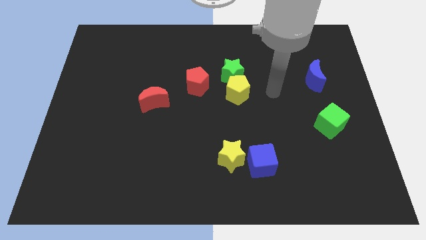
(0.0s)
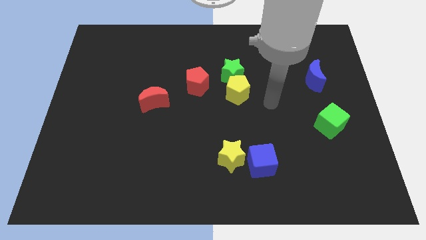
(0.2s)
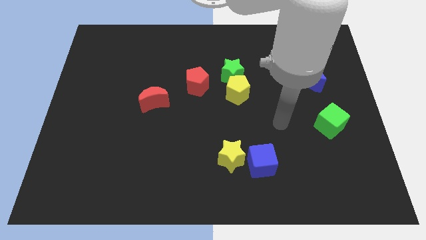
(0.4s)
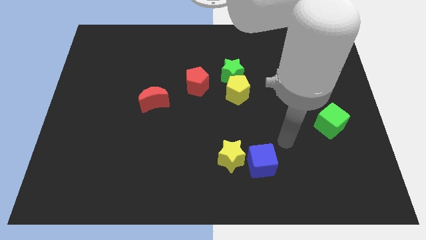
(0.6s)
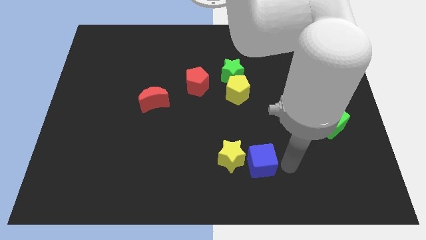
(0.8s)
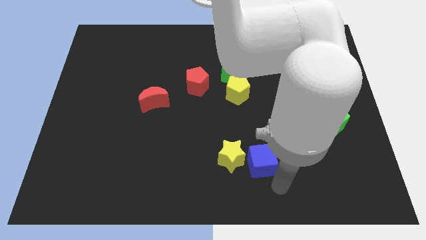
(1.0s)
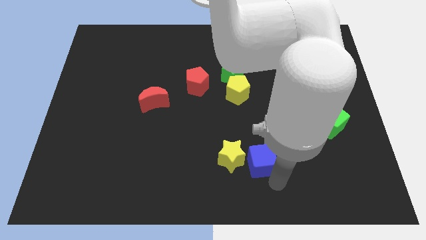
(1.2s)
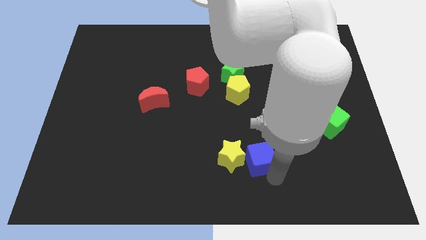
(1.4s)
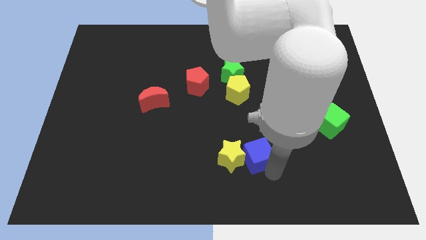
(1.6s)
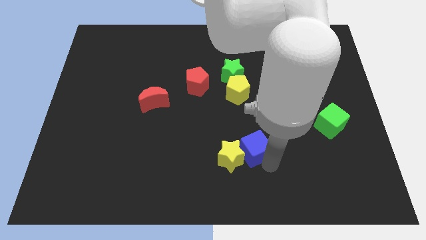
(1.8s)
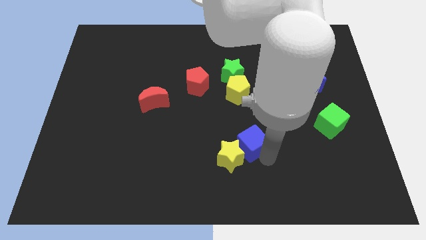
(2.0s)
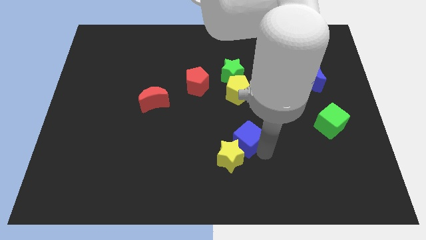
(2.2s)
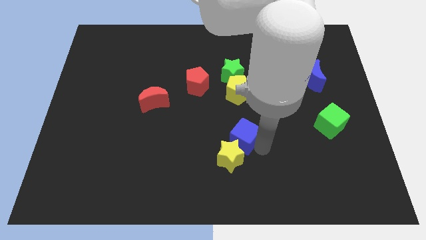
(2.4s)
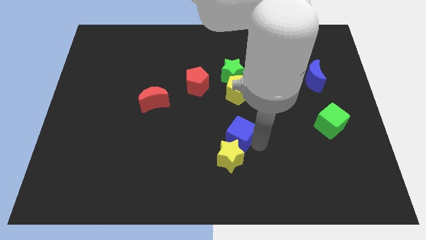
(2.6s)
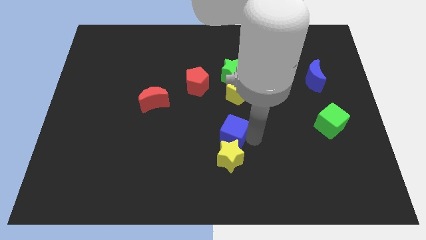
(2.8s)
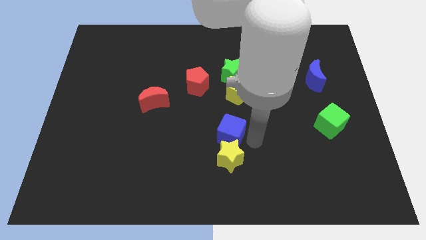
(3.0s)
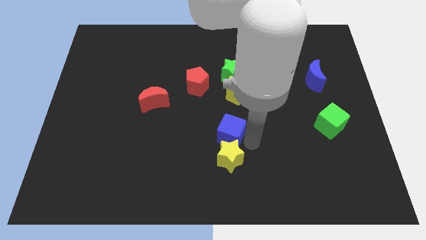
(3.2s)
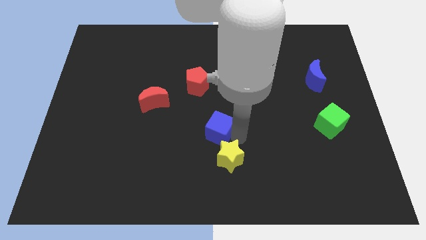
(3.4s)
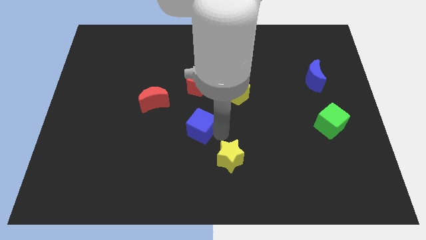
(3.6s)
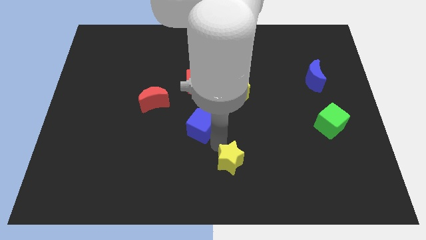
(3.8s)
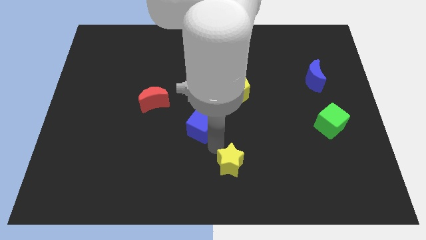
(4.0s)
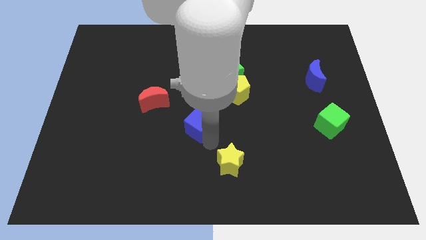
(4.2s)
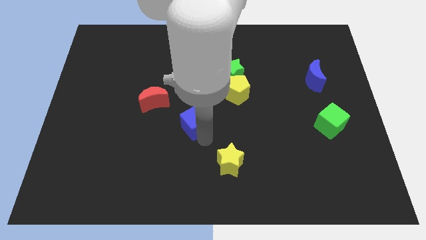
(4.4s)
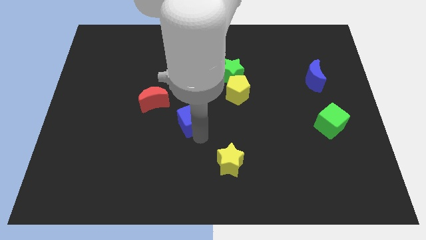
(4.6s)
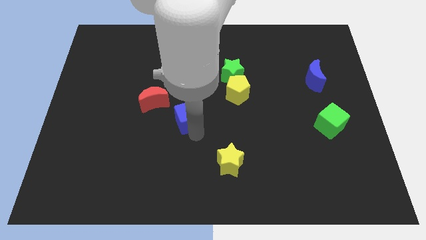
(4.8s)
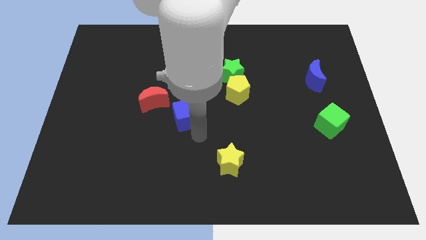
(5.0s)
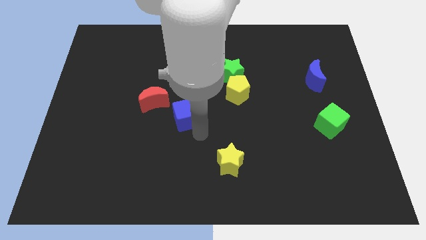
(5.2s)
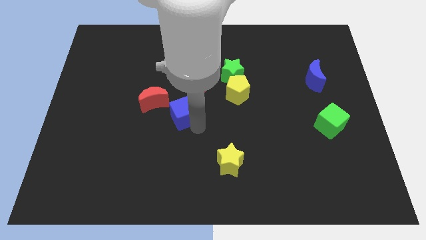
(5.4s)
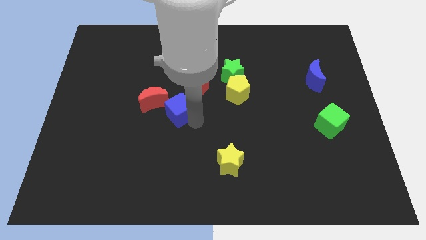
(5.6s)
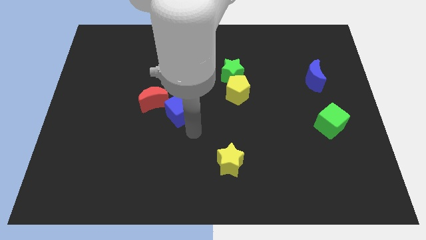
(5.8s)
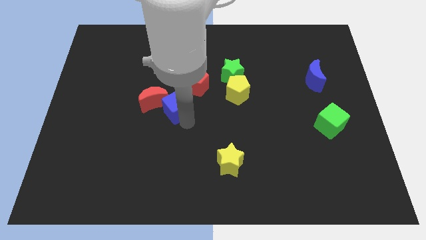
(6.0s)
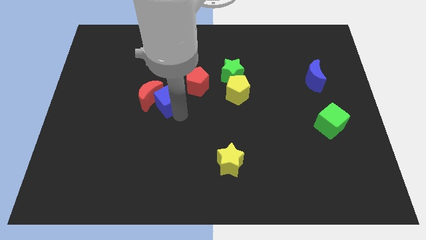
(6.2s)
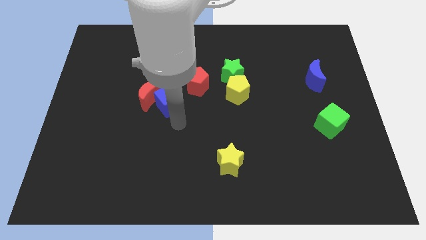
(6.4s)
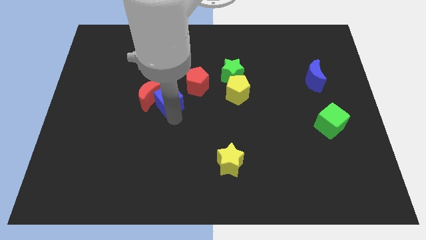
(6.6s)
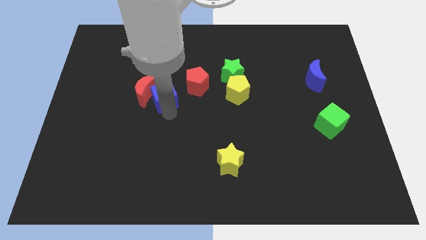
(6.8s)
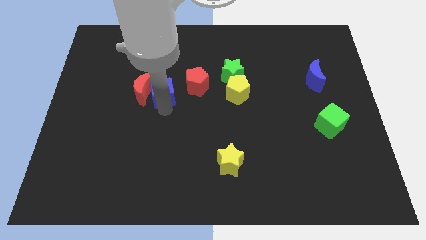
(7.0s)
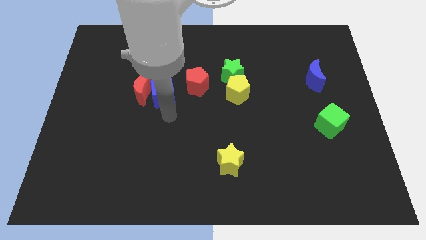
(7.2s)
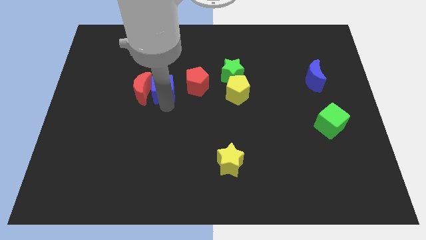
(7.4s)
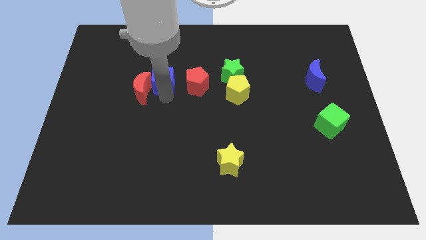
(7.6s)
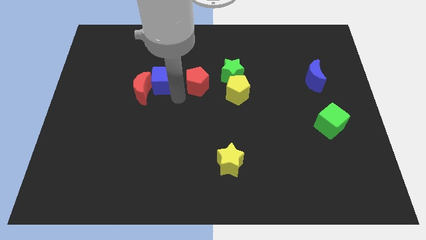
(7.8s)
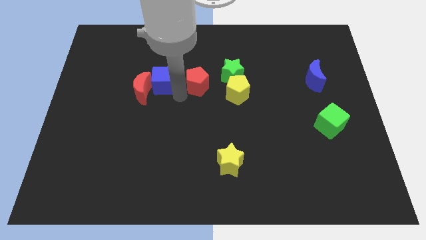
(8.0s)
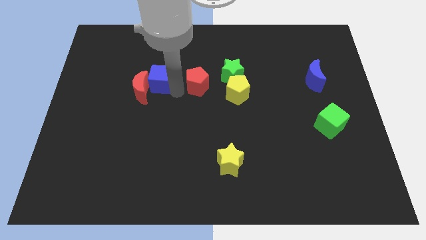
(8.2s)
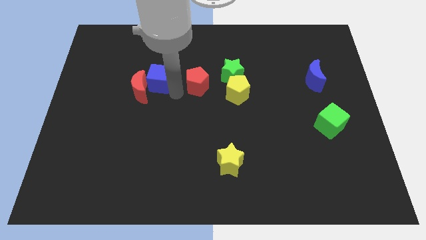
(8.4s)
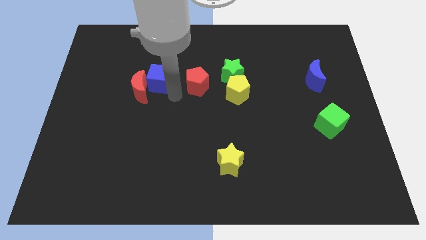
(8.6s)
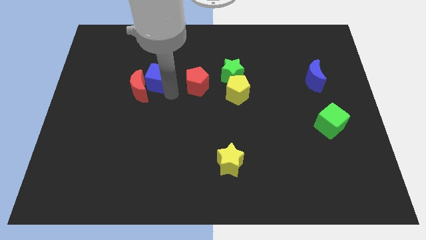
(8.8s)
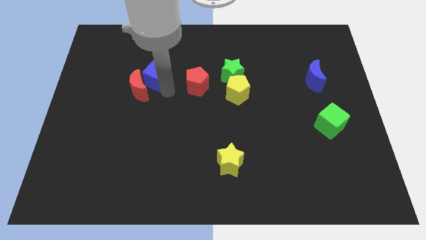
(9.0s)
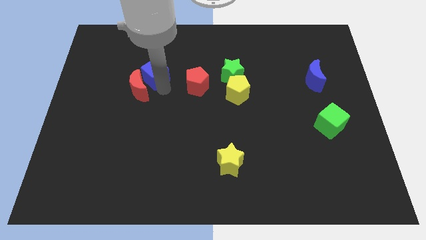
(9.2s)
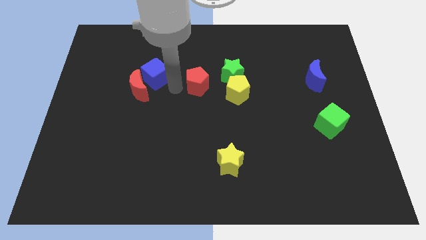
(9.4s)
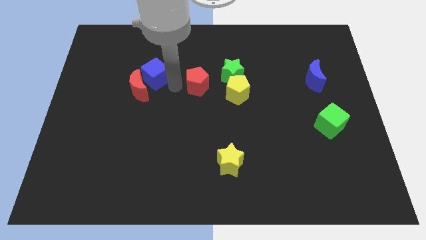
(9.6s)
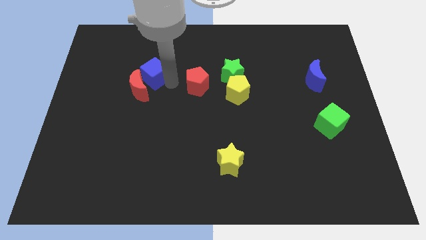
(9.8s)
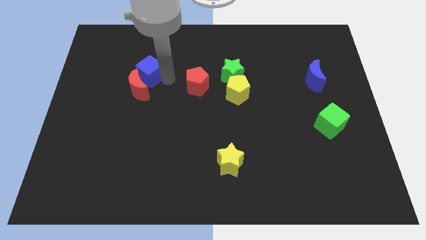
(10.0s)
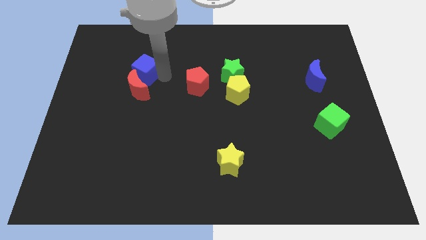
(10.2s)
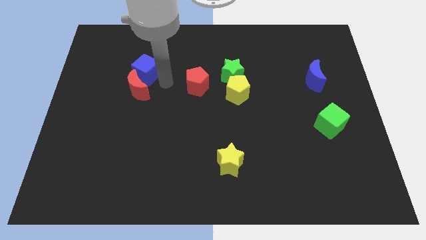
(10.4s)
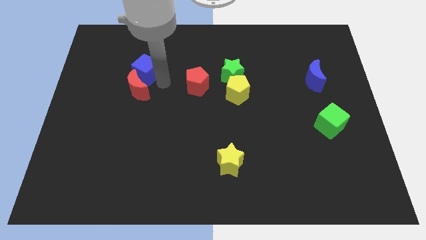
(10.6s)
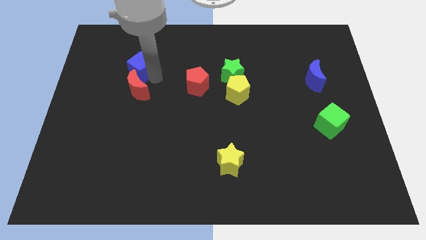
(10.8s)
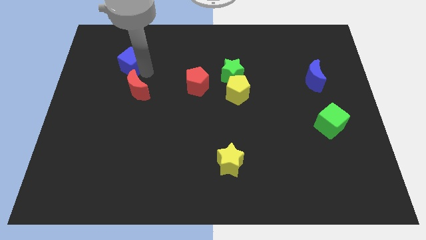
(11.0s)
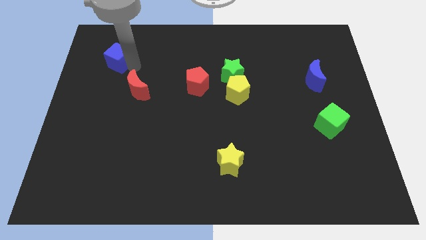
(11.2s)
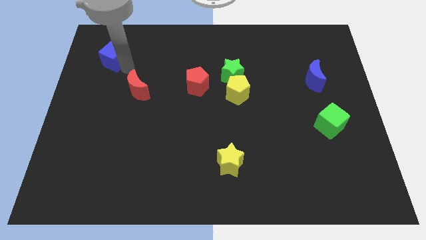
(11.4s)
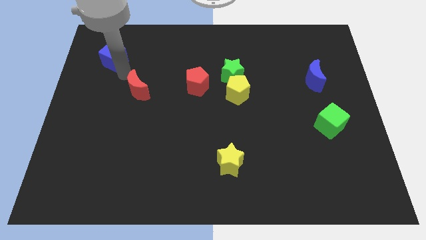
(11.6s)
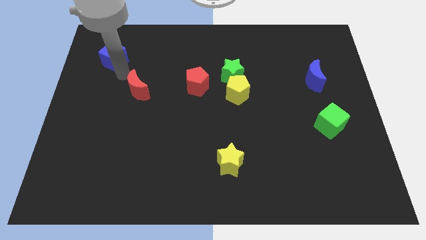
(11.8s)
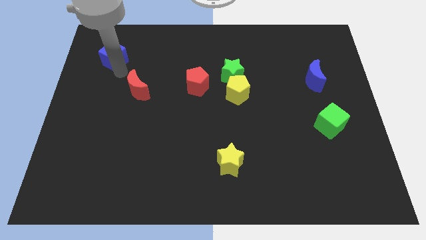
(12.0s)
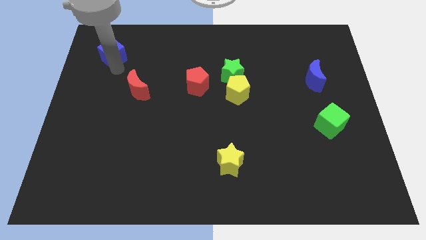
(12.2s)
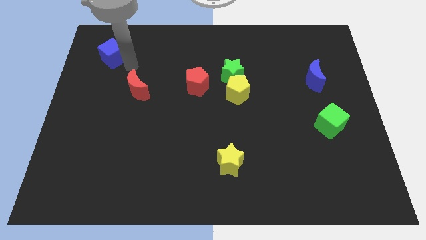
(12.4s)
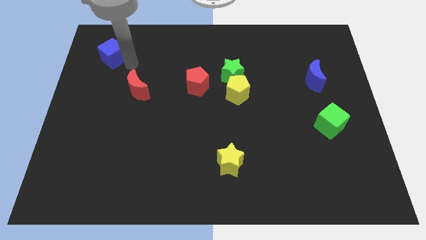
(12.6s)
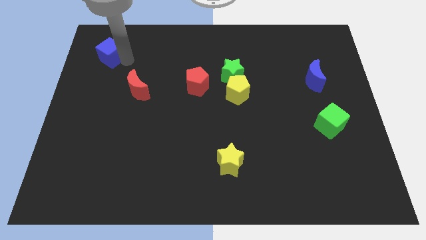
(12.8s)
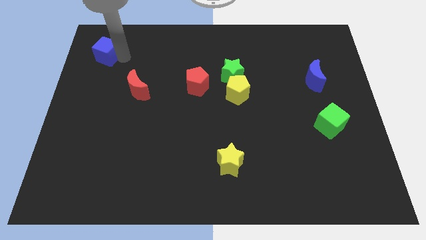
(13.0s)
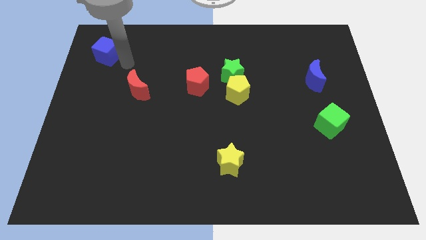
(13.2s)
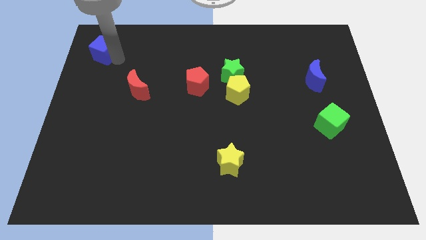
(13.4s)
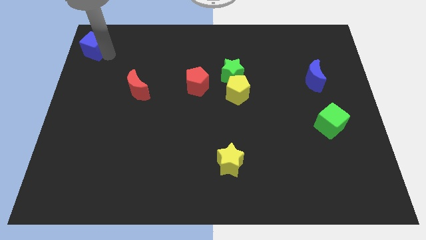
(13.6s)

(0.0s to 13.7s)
push the blue cube to the top left of the board
